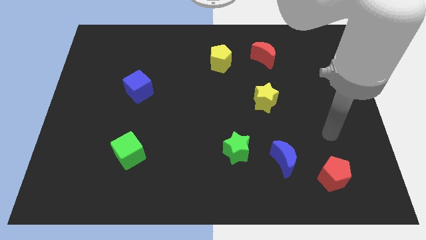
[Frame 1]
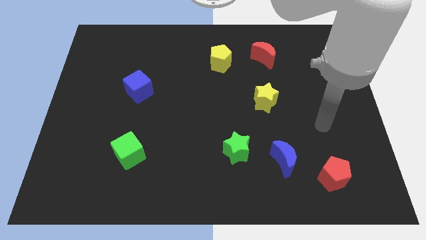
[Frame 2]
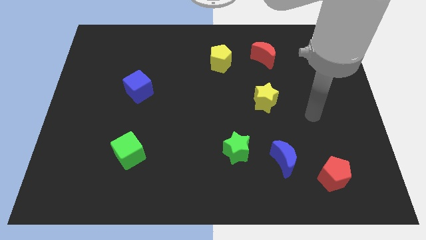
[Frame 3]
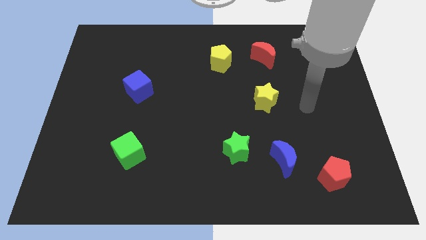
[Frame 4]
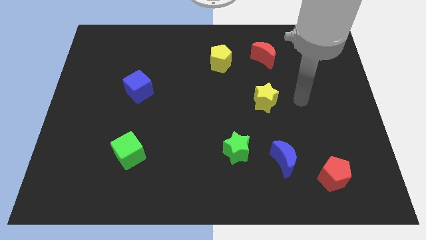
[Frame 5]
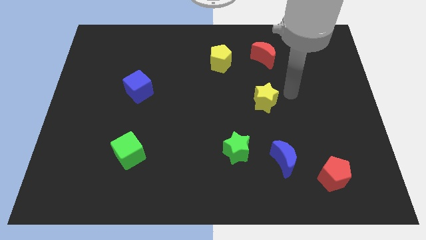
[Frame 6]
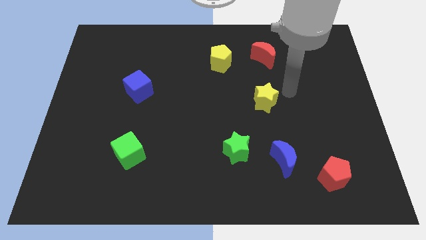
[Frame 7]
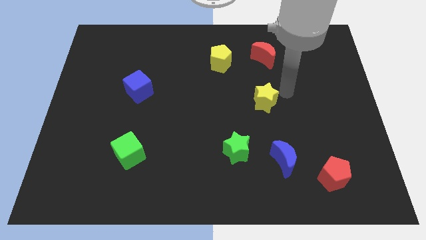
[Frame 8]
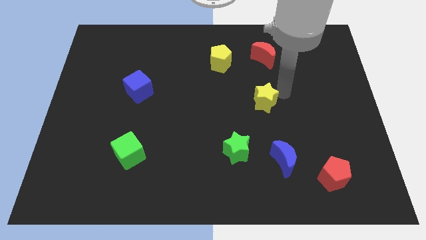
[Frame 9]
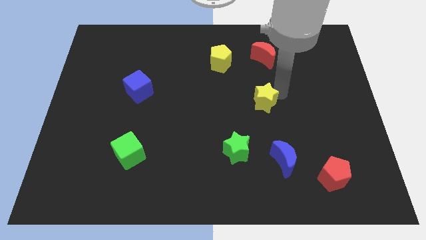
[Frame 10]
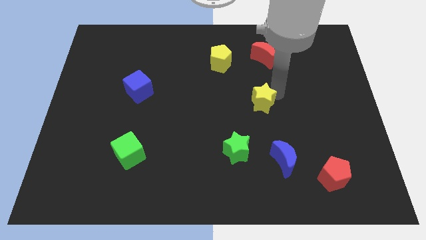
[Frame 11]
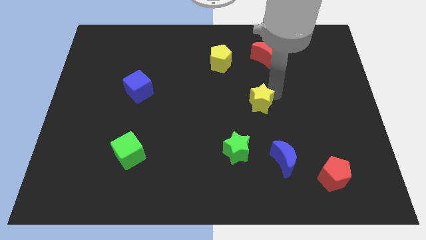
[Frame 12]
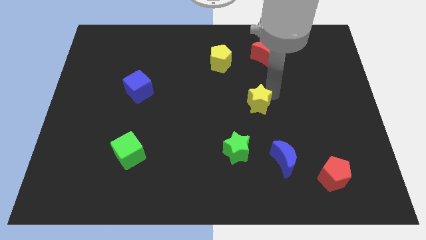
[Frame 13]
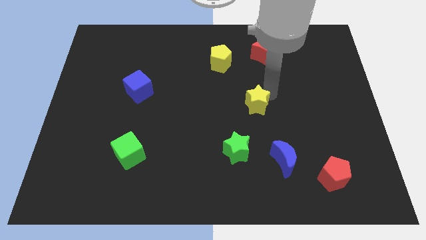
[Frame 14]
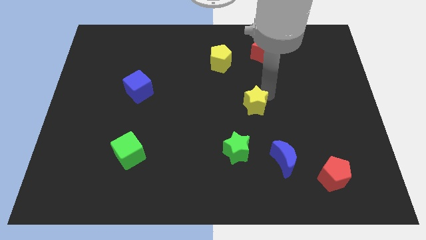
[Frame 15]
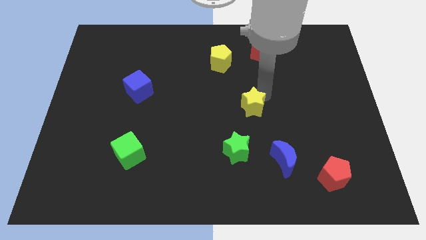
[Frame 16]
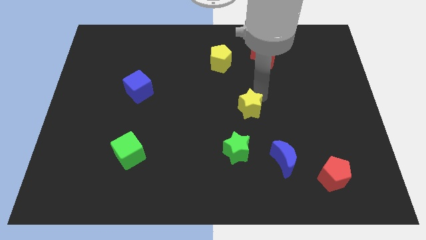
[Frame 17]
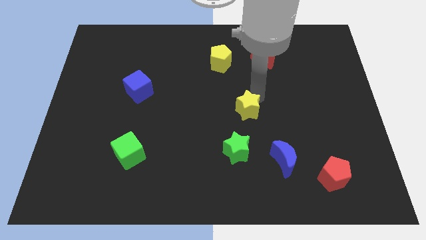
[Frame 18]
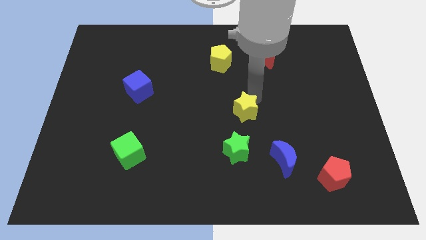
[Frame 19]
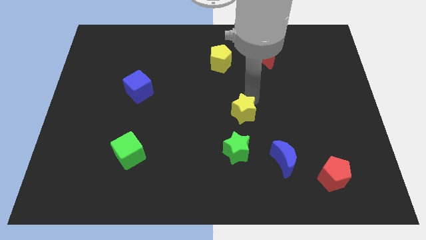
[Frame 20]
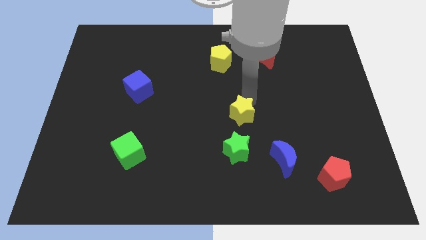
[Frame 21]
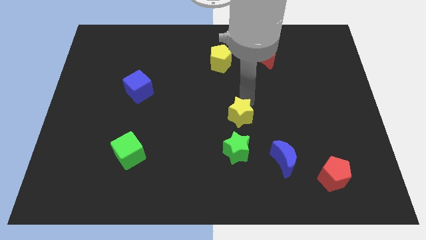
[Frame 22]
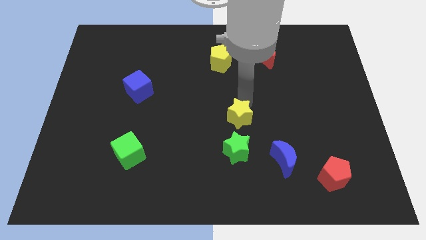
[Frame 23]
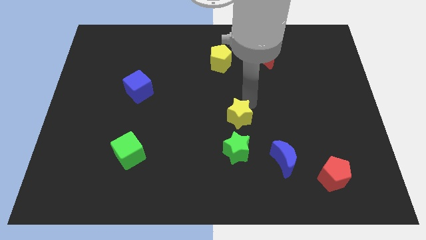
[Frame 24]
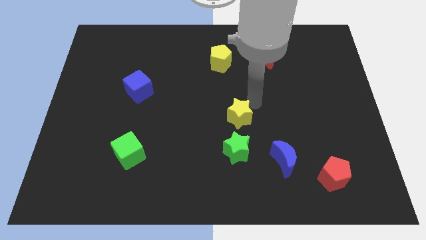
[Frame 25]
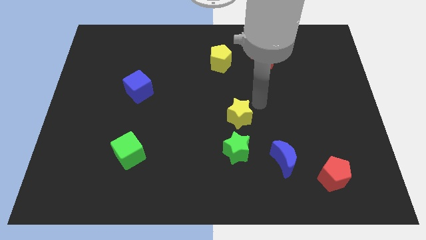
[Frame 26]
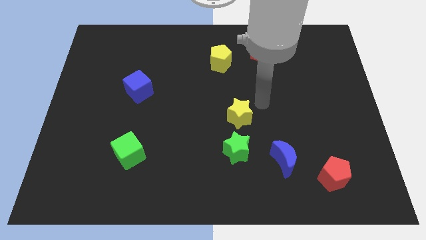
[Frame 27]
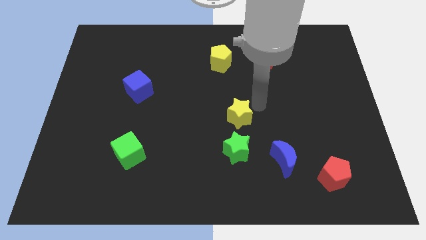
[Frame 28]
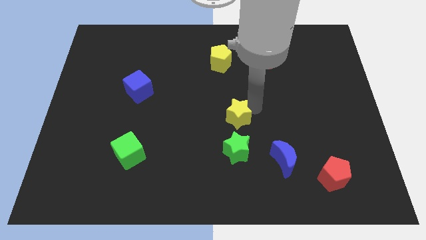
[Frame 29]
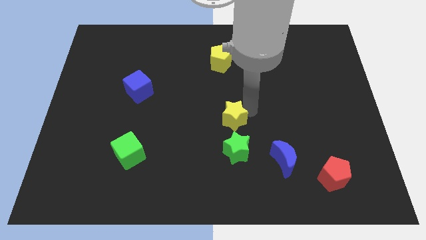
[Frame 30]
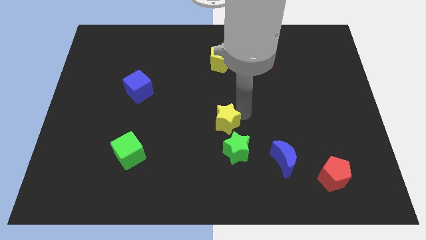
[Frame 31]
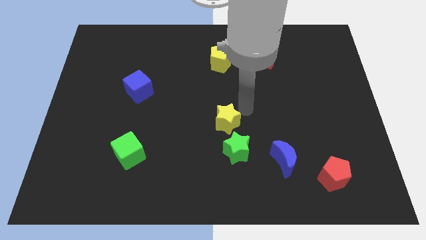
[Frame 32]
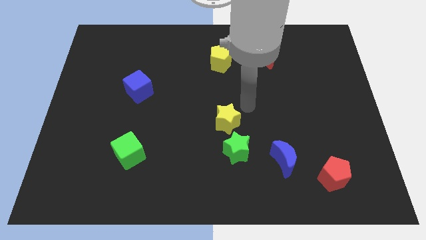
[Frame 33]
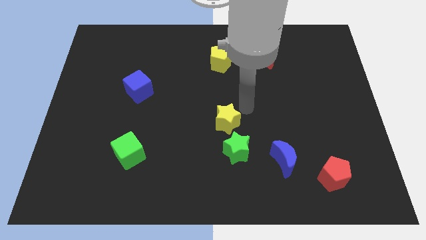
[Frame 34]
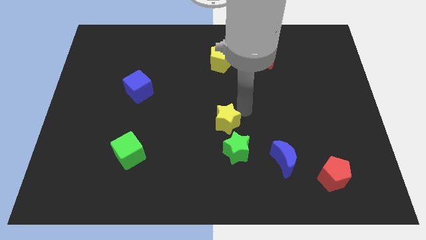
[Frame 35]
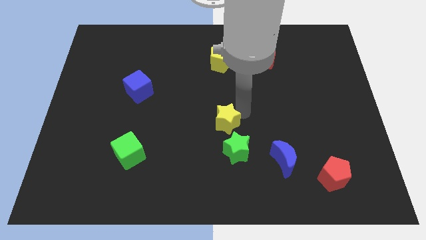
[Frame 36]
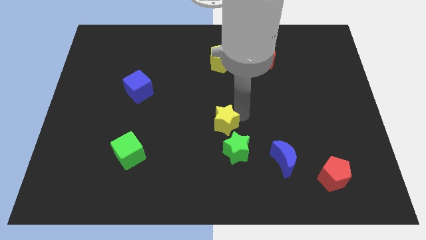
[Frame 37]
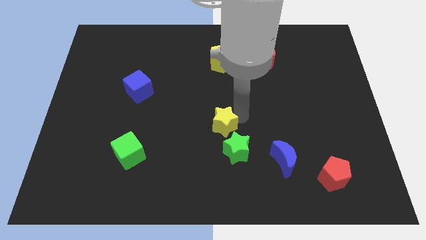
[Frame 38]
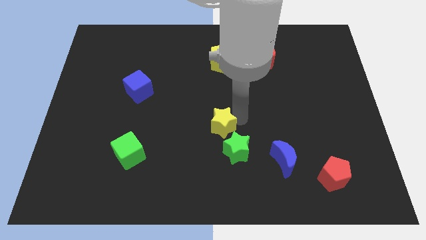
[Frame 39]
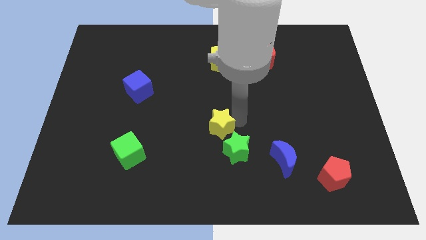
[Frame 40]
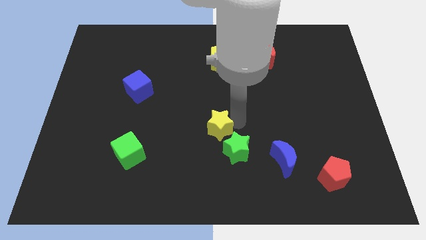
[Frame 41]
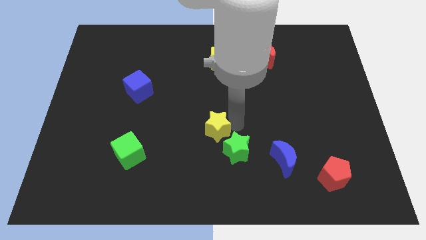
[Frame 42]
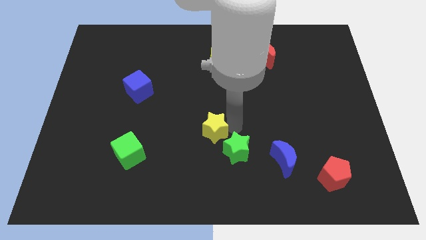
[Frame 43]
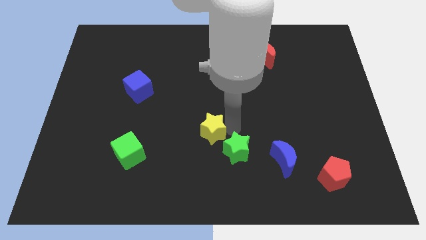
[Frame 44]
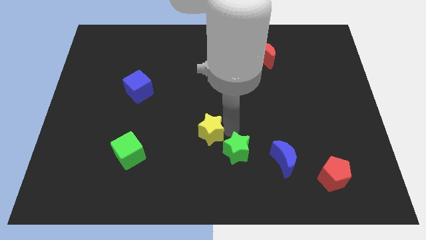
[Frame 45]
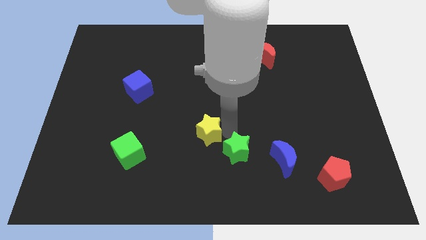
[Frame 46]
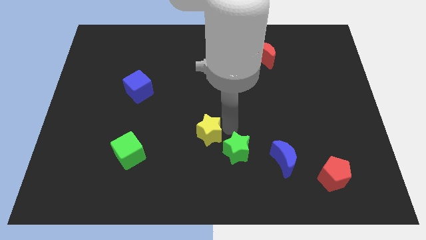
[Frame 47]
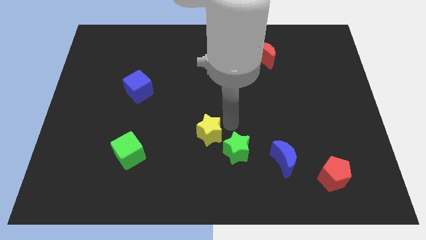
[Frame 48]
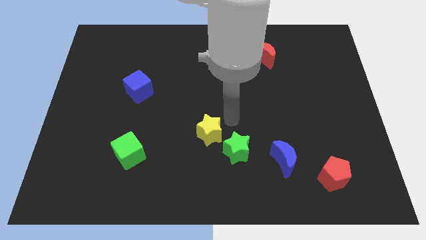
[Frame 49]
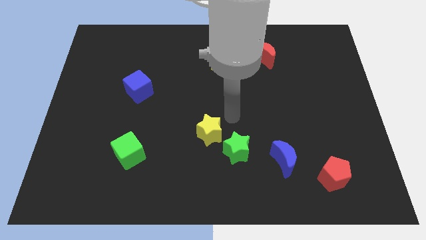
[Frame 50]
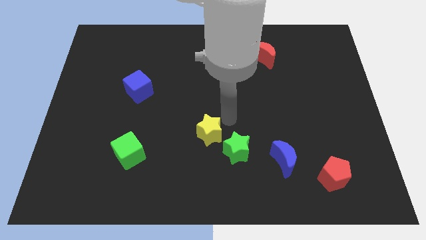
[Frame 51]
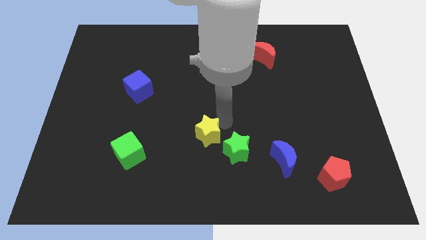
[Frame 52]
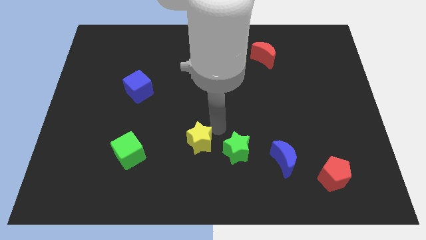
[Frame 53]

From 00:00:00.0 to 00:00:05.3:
move the yellow star right of the green cube

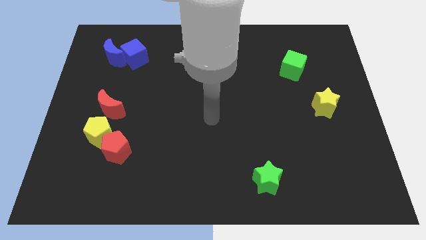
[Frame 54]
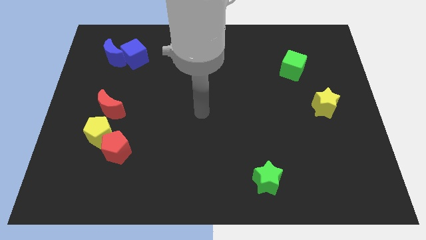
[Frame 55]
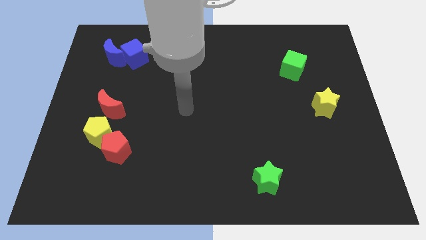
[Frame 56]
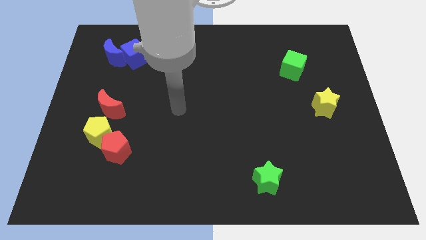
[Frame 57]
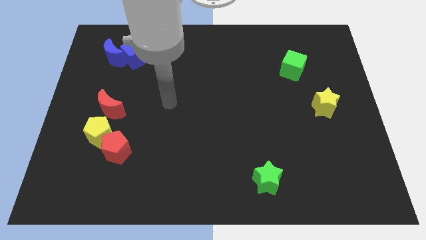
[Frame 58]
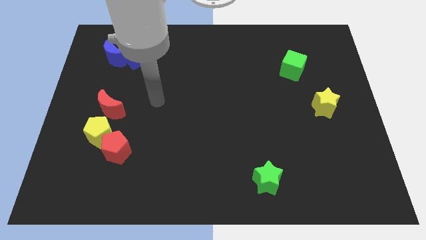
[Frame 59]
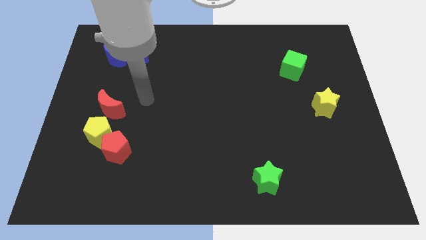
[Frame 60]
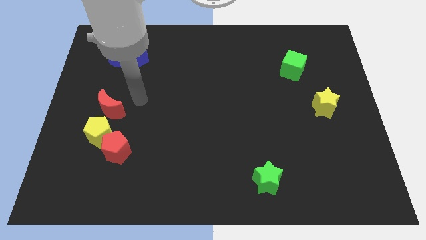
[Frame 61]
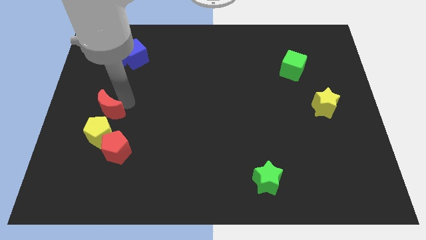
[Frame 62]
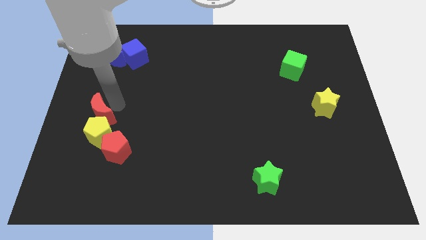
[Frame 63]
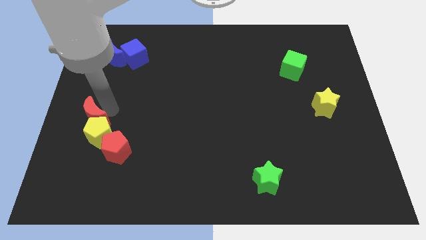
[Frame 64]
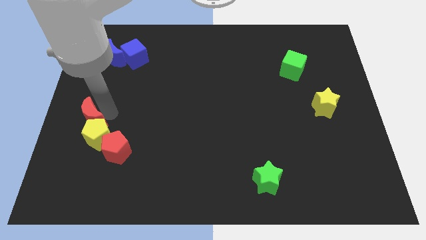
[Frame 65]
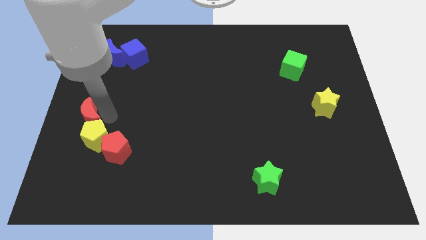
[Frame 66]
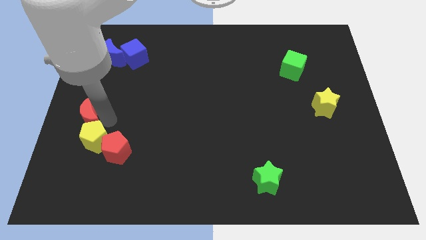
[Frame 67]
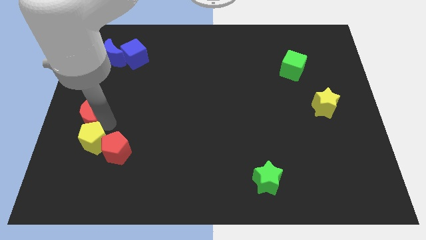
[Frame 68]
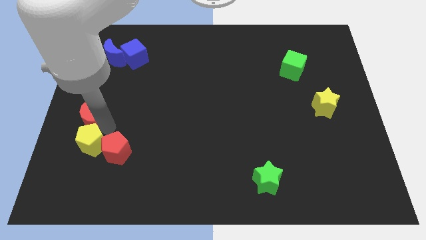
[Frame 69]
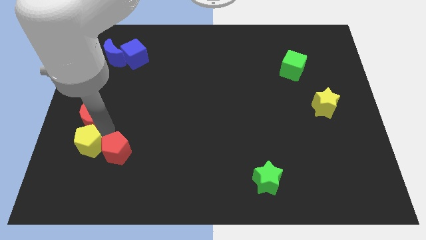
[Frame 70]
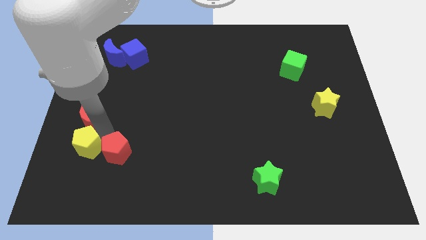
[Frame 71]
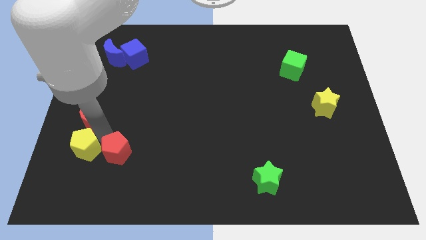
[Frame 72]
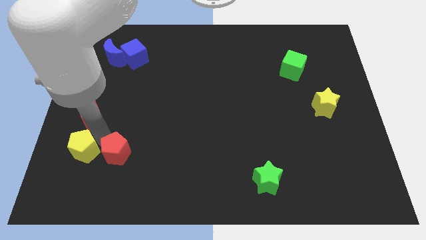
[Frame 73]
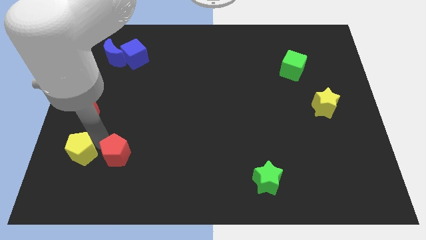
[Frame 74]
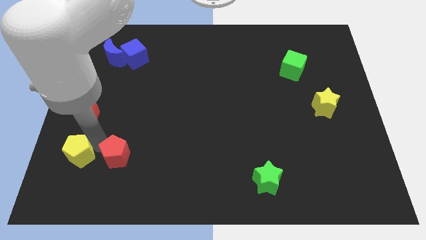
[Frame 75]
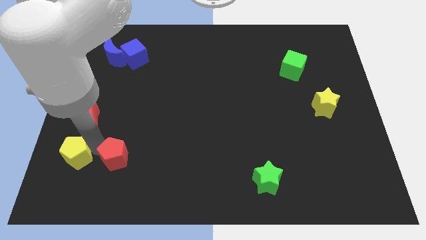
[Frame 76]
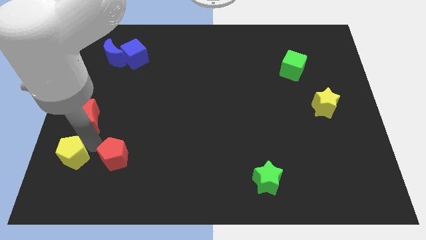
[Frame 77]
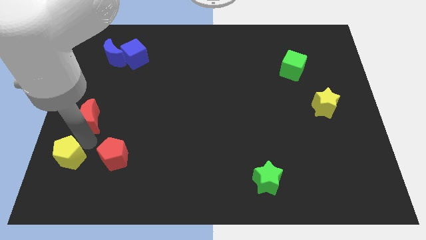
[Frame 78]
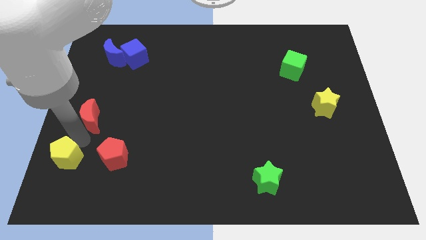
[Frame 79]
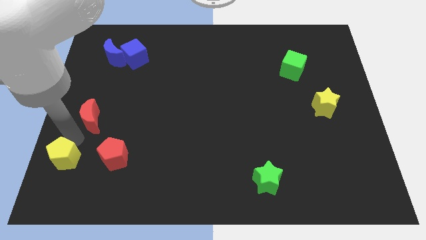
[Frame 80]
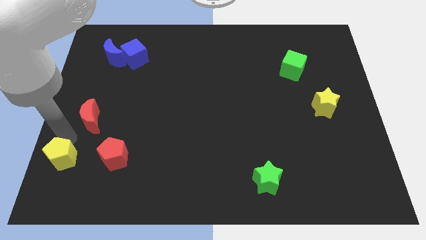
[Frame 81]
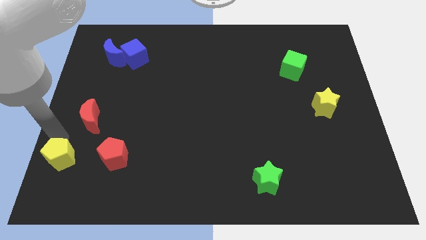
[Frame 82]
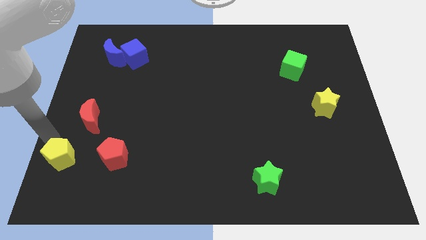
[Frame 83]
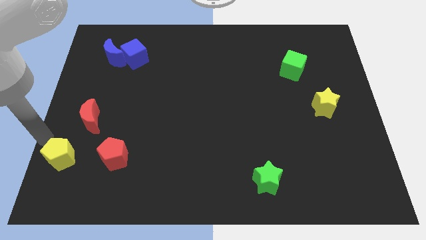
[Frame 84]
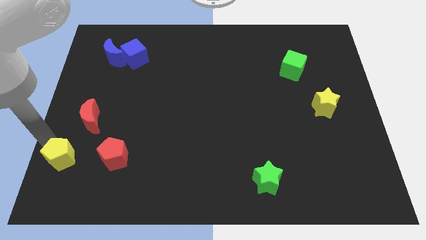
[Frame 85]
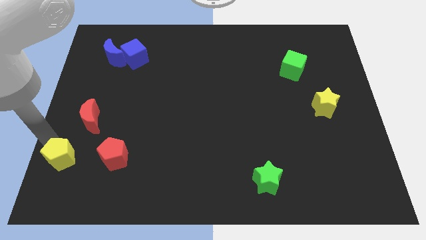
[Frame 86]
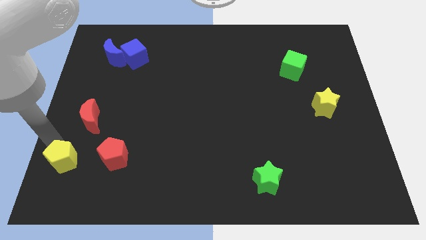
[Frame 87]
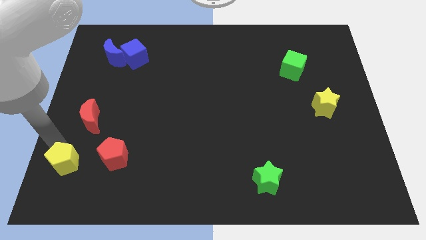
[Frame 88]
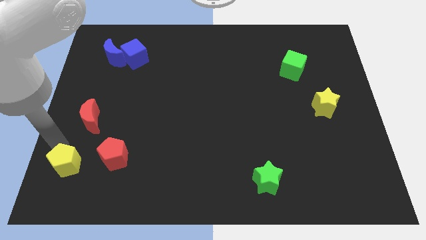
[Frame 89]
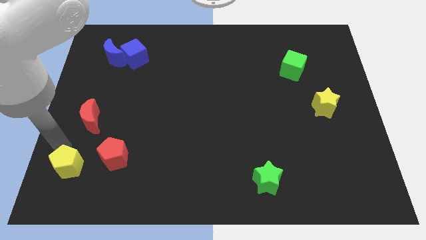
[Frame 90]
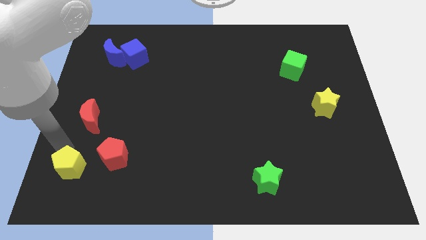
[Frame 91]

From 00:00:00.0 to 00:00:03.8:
slide the yellow pentagon to the bottom left side of the red pentagon
